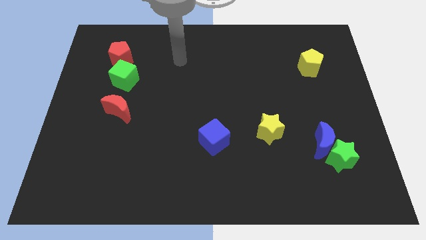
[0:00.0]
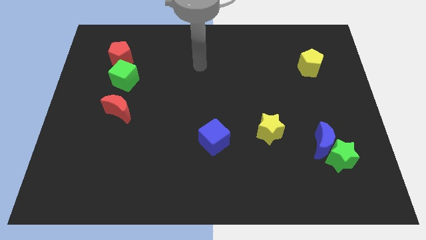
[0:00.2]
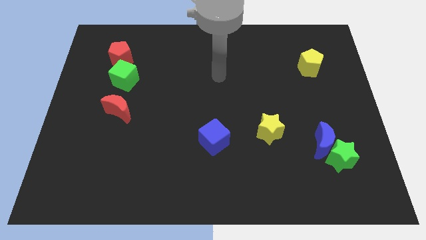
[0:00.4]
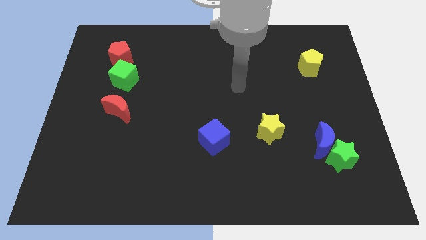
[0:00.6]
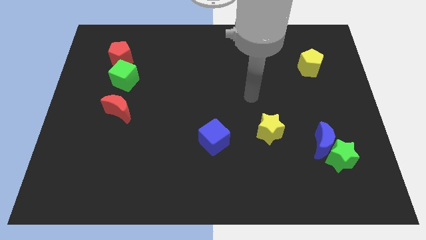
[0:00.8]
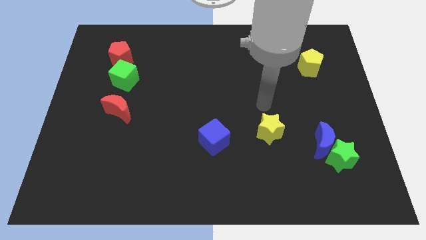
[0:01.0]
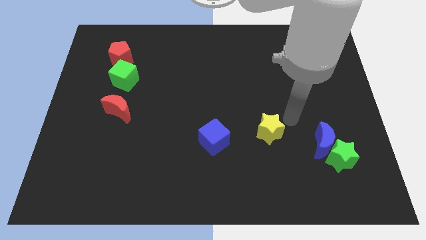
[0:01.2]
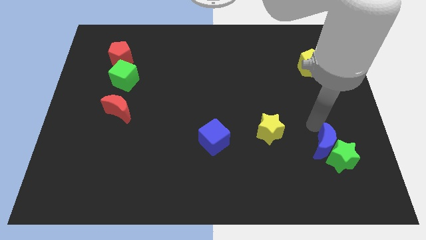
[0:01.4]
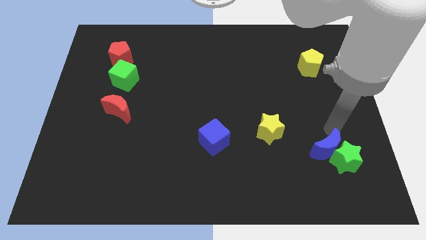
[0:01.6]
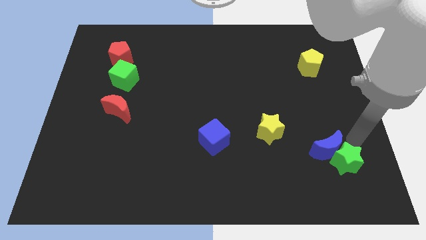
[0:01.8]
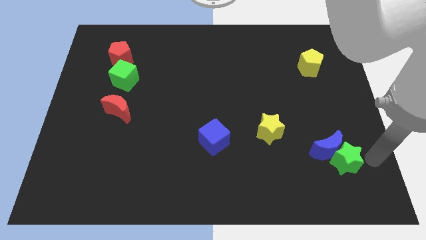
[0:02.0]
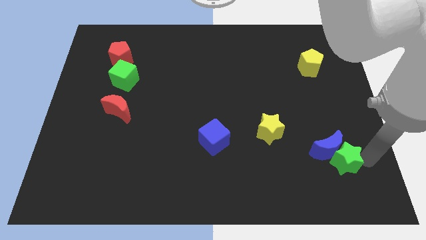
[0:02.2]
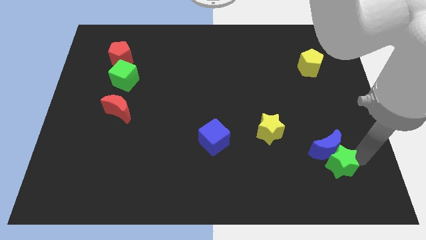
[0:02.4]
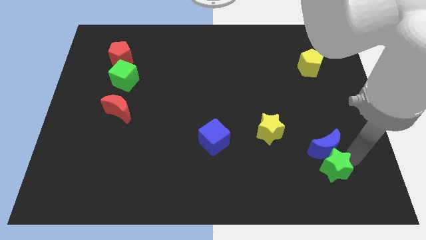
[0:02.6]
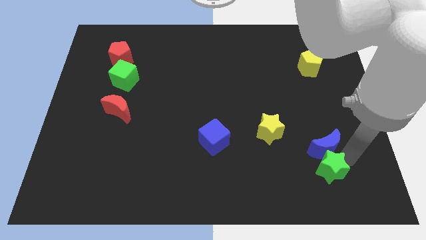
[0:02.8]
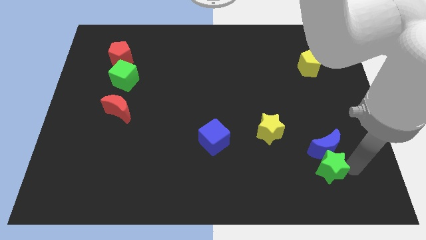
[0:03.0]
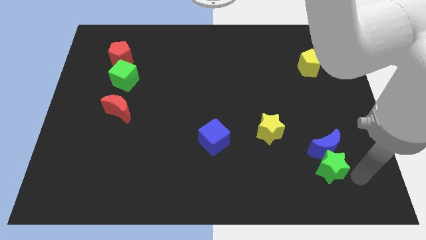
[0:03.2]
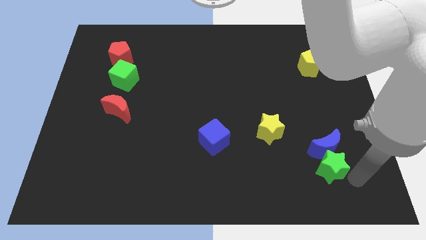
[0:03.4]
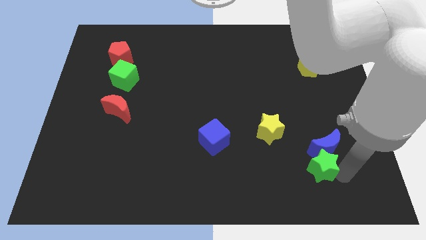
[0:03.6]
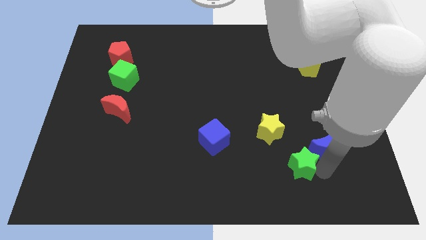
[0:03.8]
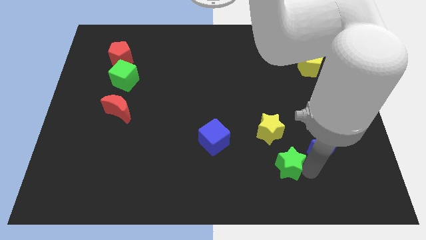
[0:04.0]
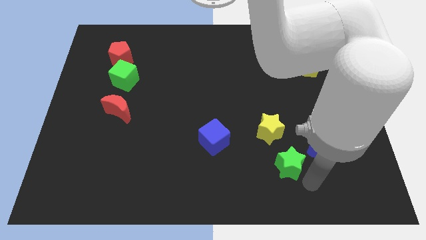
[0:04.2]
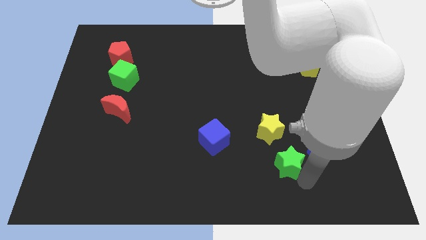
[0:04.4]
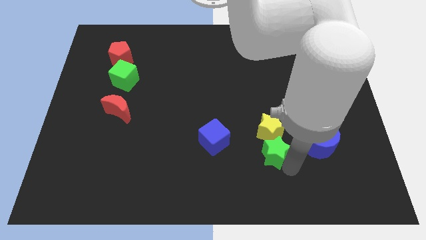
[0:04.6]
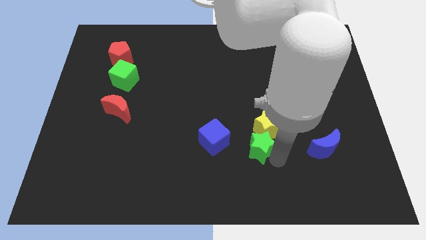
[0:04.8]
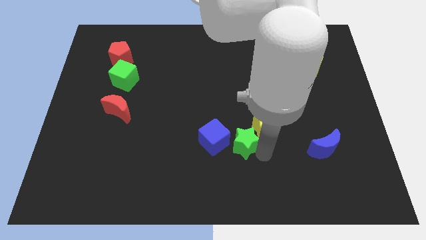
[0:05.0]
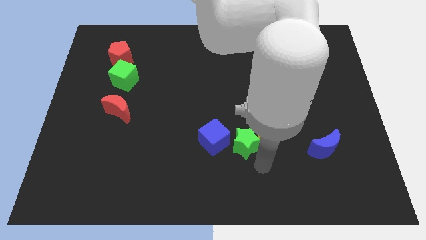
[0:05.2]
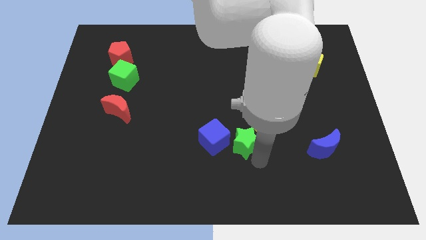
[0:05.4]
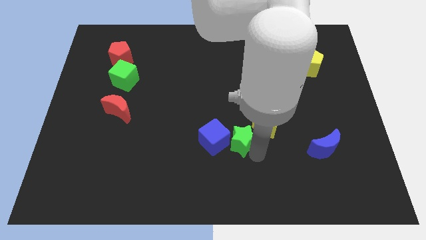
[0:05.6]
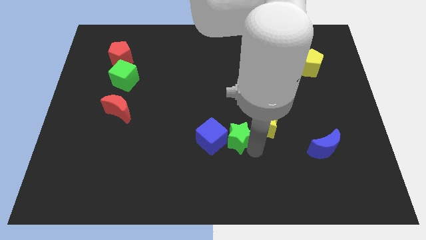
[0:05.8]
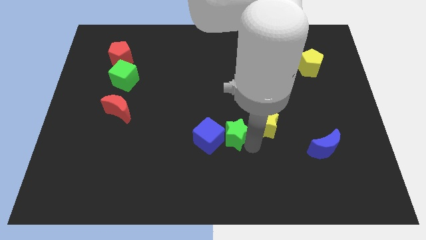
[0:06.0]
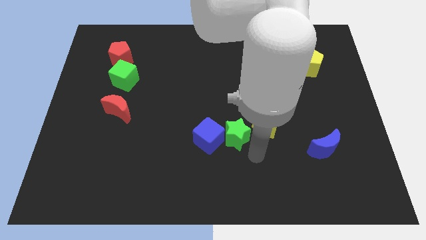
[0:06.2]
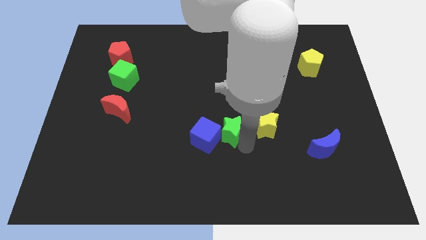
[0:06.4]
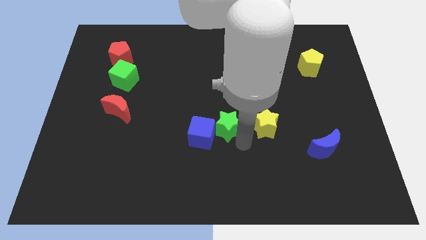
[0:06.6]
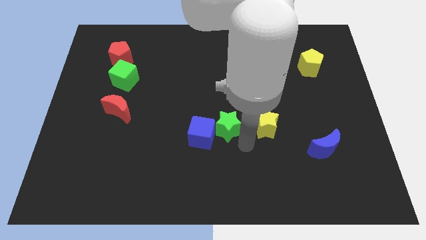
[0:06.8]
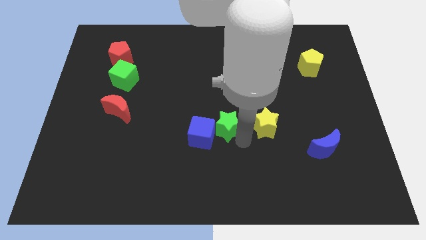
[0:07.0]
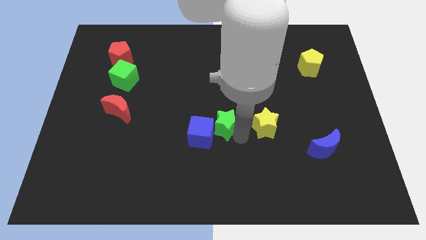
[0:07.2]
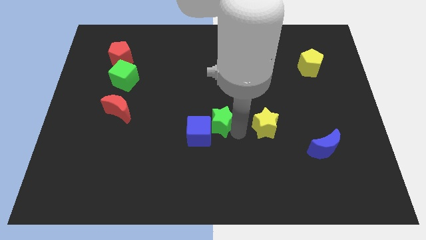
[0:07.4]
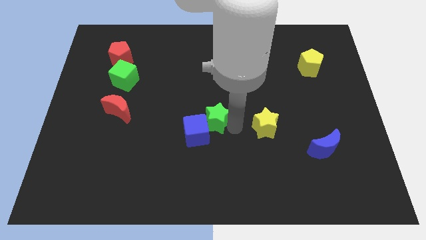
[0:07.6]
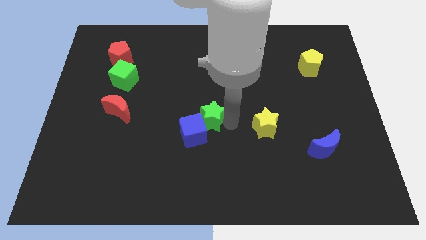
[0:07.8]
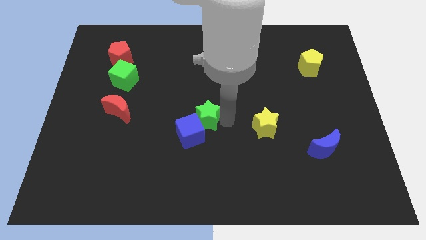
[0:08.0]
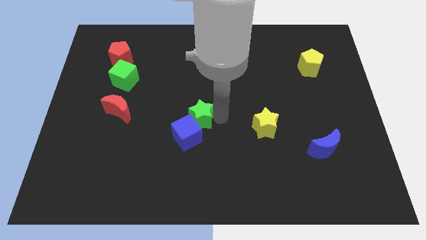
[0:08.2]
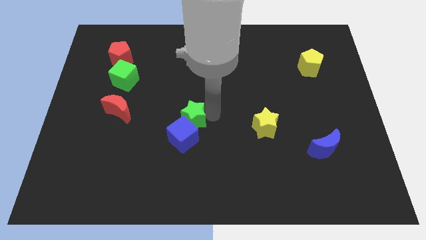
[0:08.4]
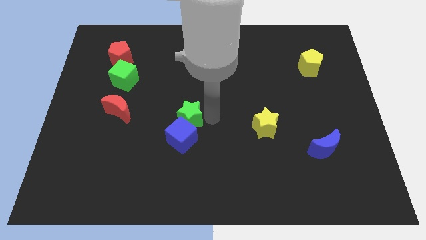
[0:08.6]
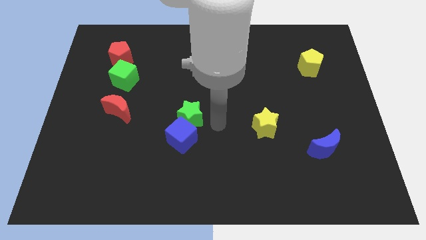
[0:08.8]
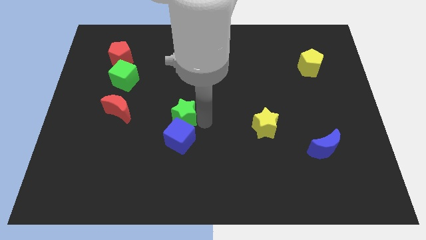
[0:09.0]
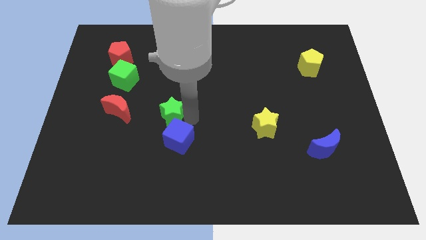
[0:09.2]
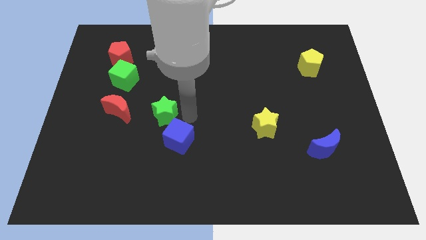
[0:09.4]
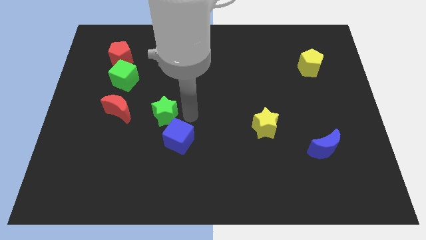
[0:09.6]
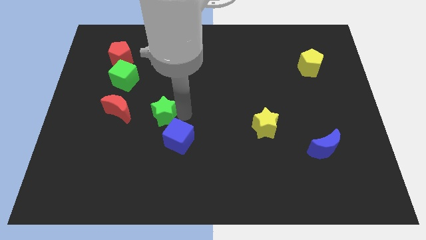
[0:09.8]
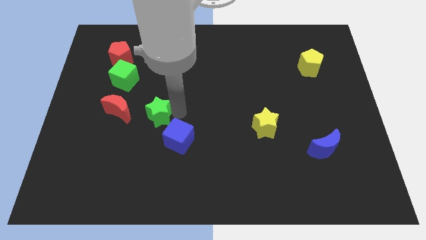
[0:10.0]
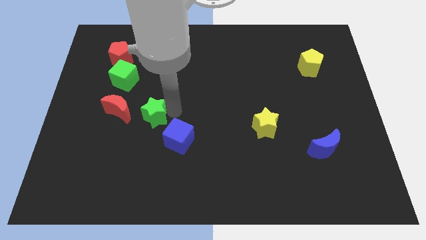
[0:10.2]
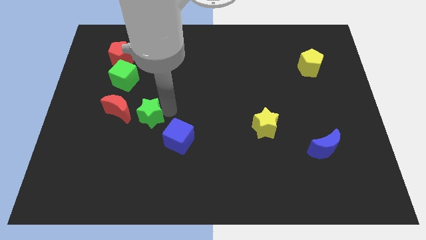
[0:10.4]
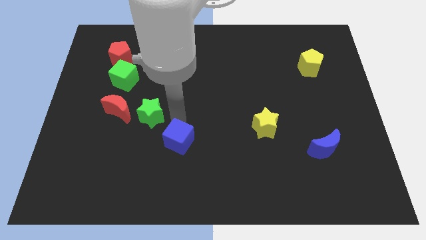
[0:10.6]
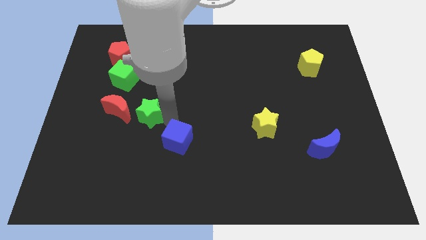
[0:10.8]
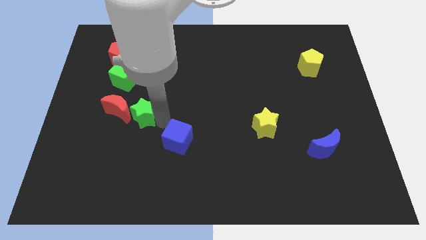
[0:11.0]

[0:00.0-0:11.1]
move the green star next to the red moon

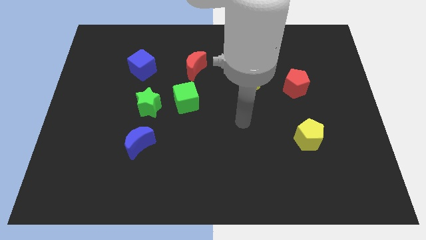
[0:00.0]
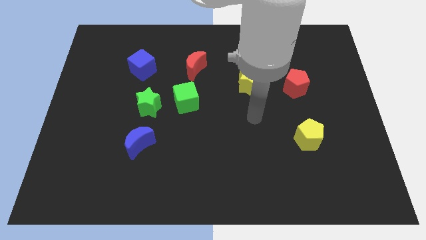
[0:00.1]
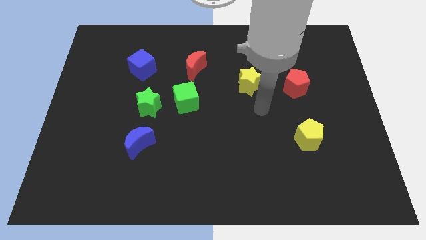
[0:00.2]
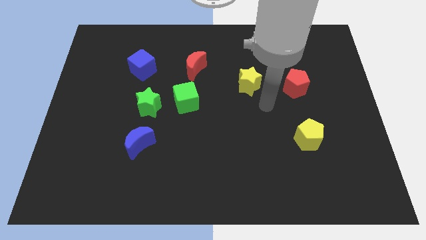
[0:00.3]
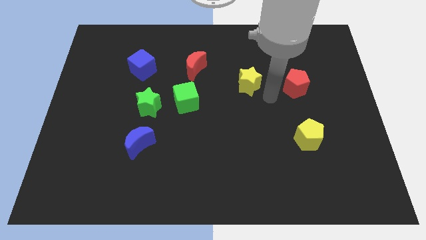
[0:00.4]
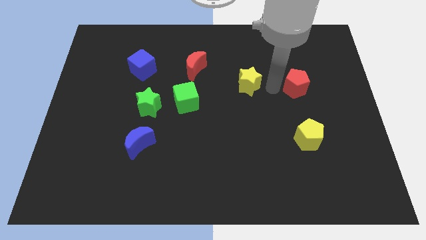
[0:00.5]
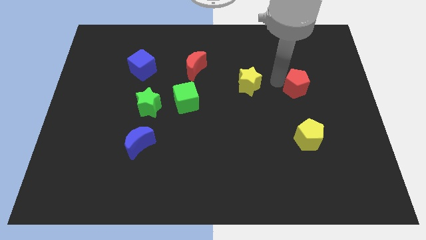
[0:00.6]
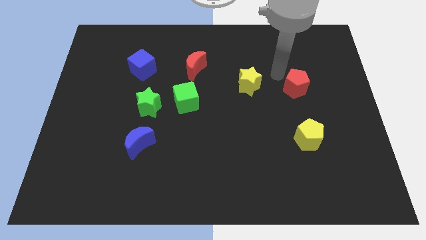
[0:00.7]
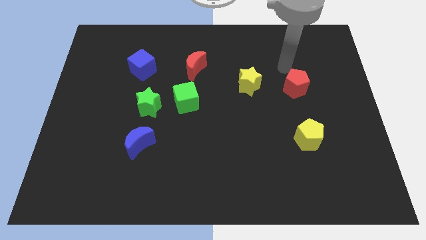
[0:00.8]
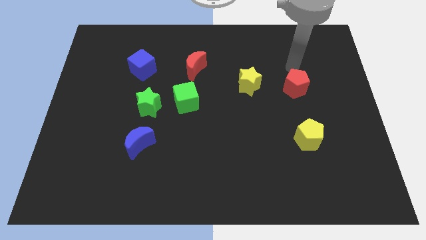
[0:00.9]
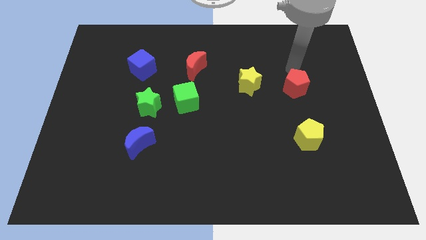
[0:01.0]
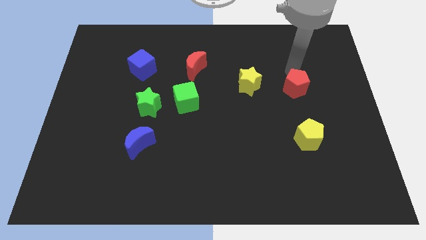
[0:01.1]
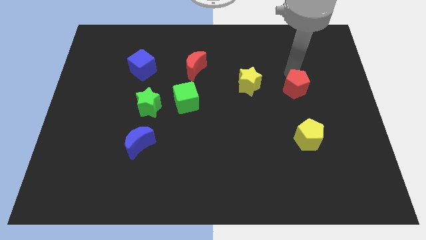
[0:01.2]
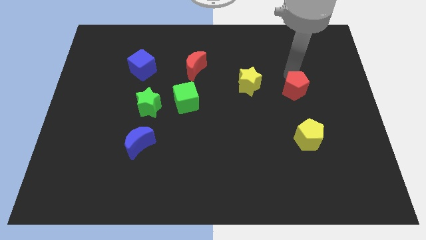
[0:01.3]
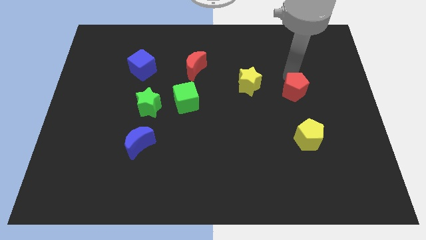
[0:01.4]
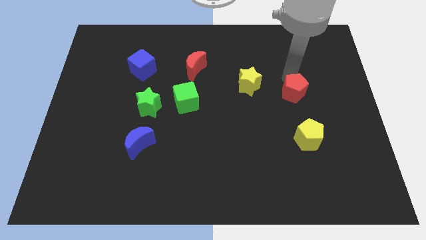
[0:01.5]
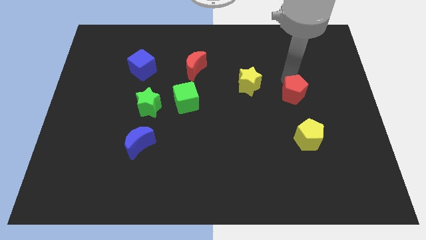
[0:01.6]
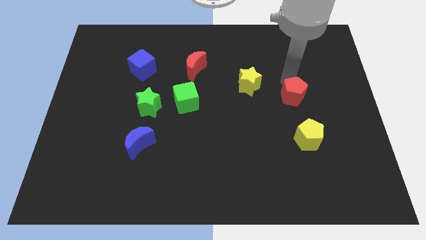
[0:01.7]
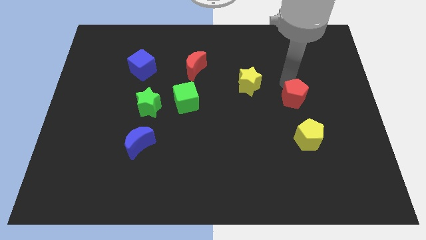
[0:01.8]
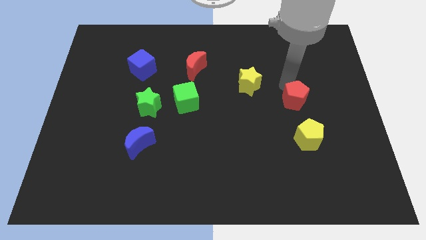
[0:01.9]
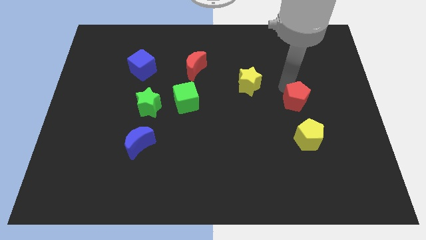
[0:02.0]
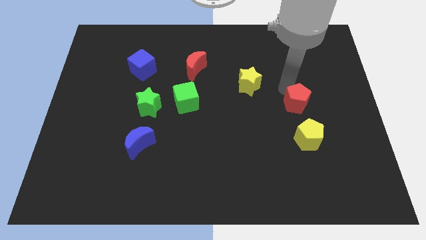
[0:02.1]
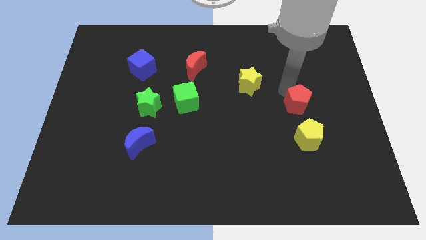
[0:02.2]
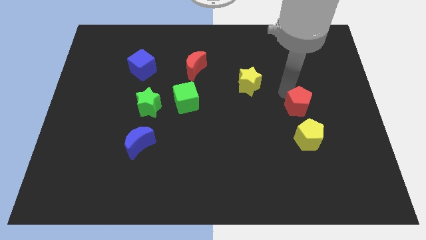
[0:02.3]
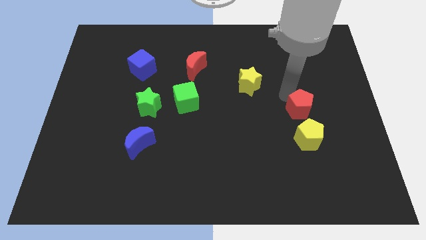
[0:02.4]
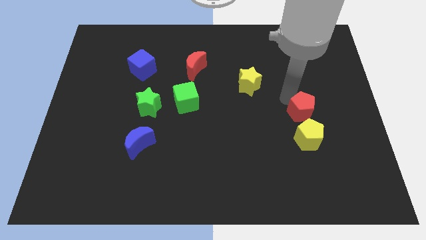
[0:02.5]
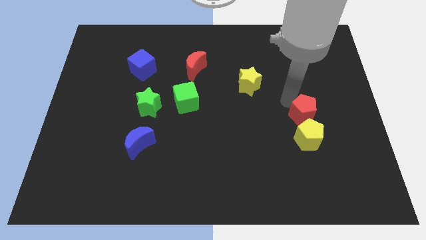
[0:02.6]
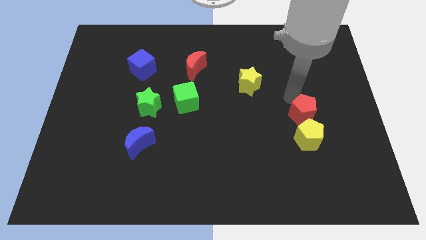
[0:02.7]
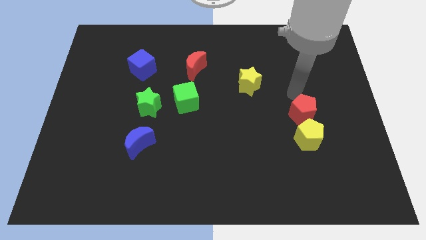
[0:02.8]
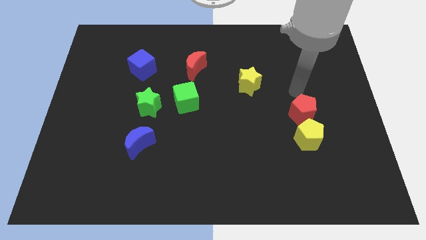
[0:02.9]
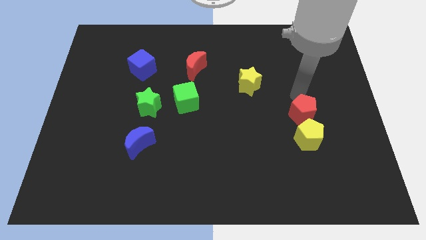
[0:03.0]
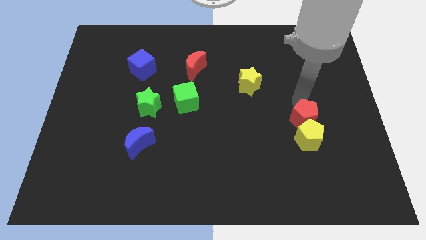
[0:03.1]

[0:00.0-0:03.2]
push the red pentagon towards the yellow pentagon
